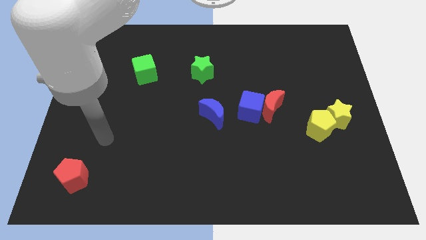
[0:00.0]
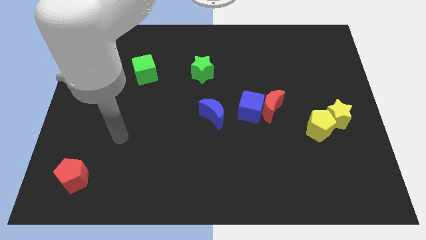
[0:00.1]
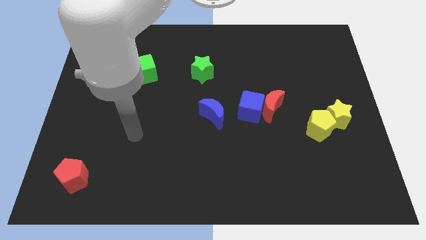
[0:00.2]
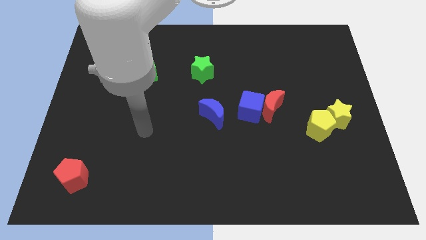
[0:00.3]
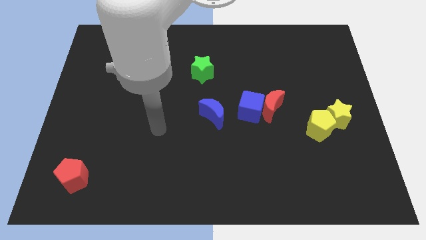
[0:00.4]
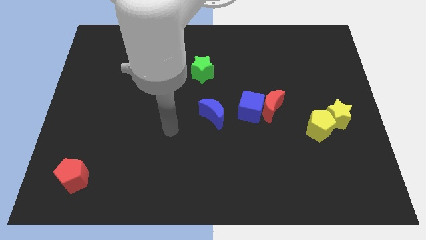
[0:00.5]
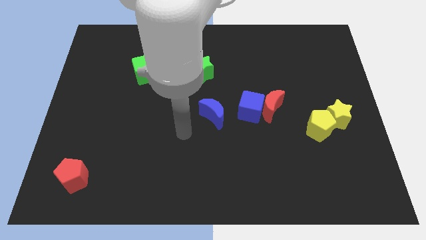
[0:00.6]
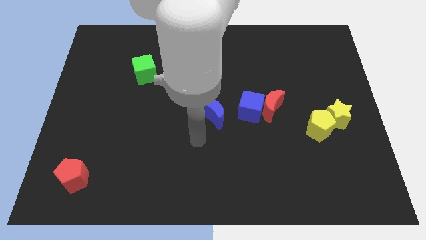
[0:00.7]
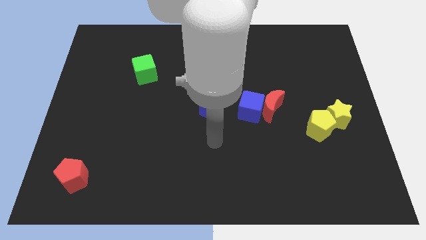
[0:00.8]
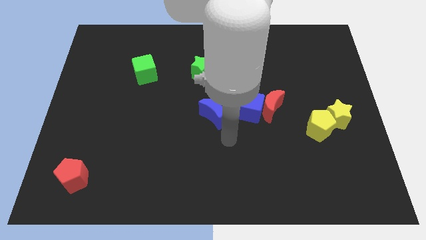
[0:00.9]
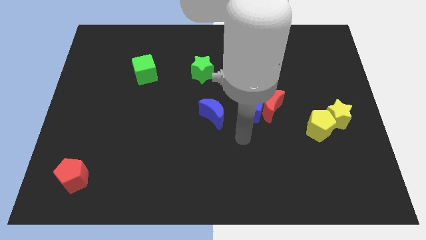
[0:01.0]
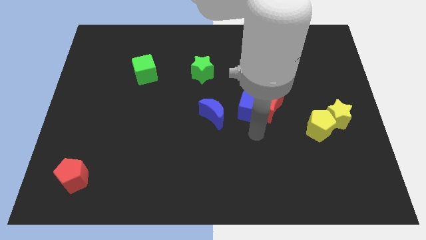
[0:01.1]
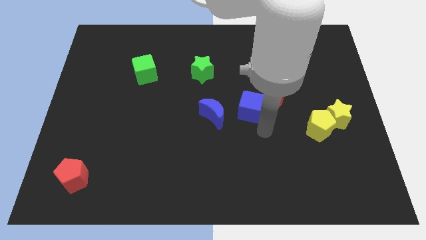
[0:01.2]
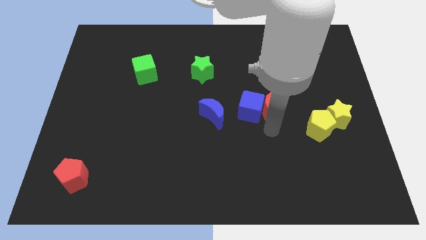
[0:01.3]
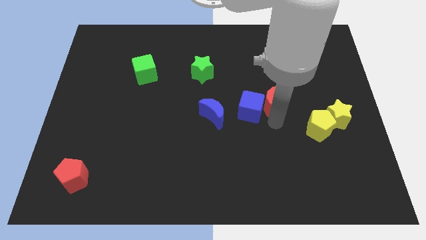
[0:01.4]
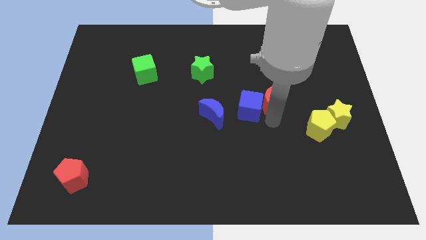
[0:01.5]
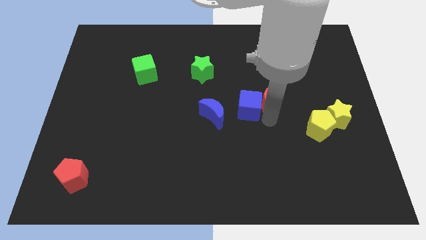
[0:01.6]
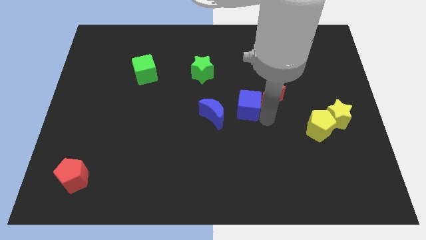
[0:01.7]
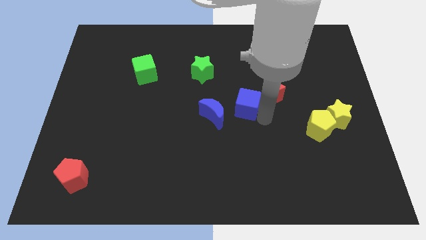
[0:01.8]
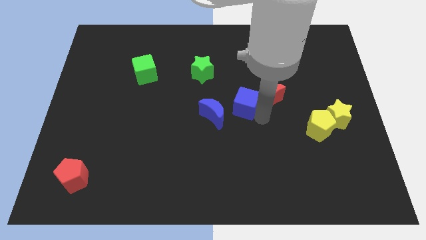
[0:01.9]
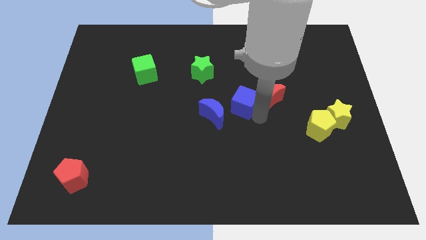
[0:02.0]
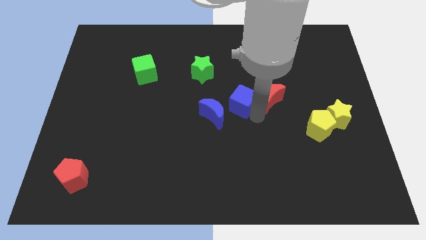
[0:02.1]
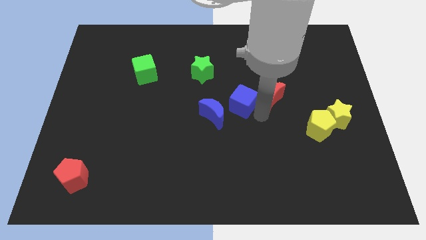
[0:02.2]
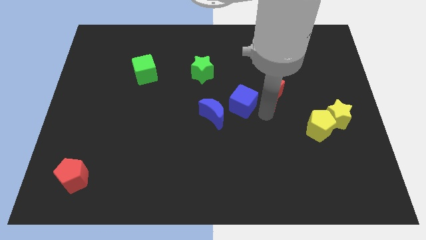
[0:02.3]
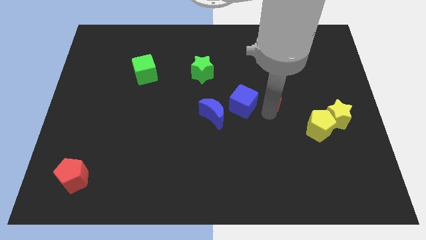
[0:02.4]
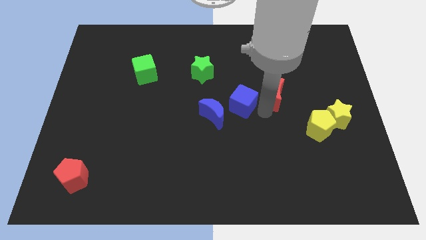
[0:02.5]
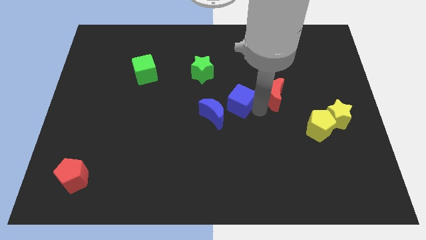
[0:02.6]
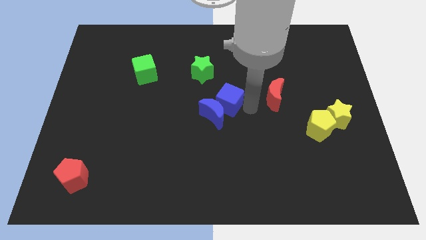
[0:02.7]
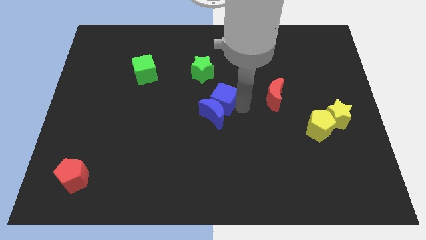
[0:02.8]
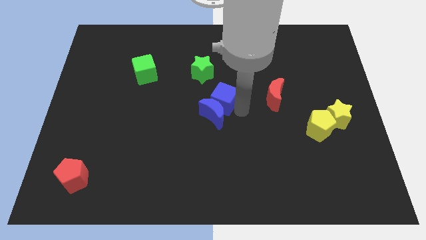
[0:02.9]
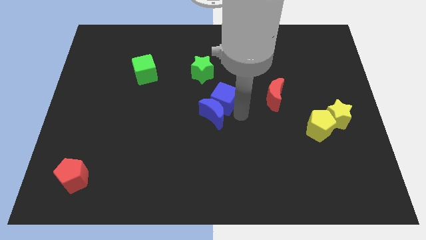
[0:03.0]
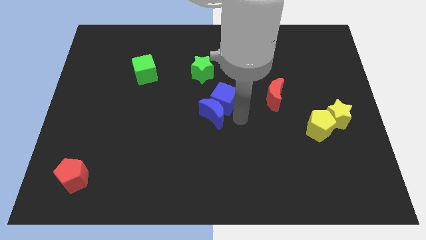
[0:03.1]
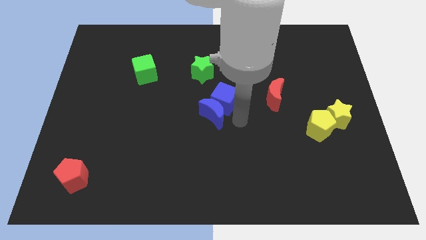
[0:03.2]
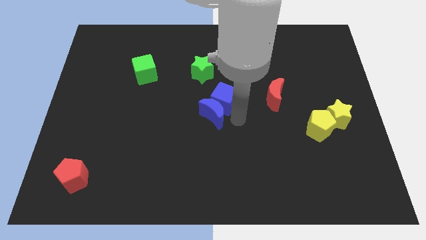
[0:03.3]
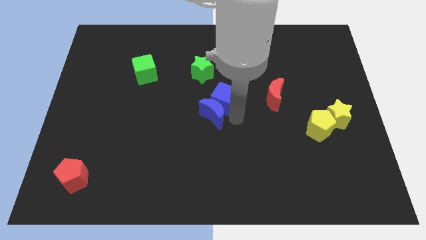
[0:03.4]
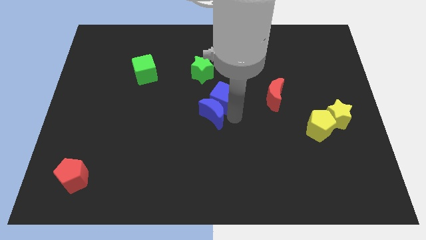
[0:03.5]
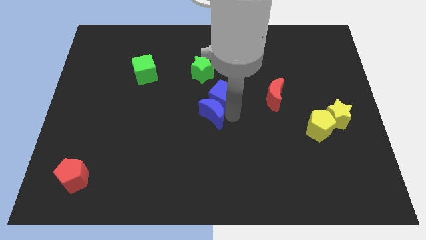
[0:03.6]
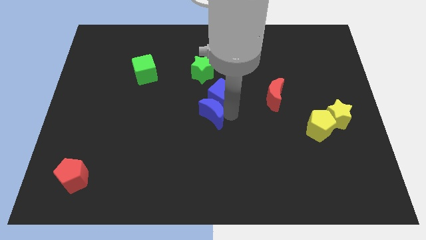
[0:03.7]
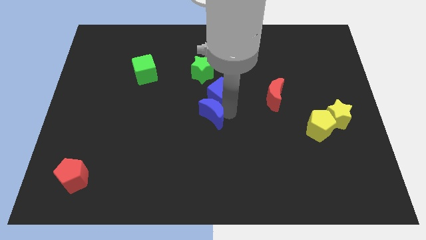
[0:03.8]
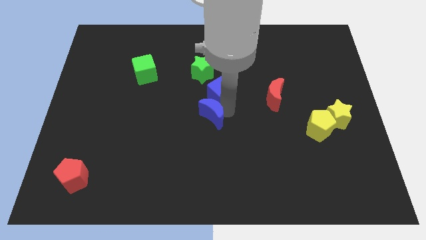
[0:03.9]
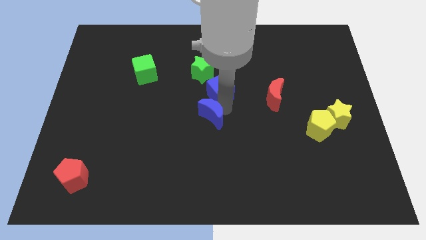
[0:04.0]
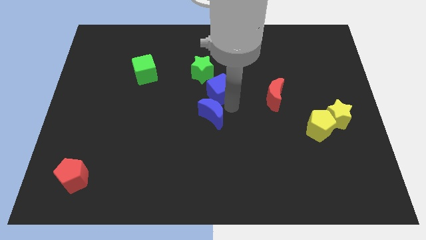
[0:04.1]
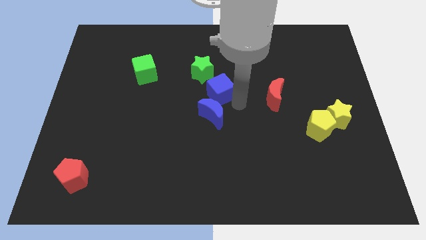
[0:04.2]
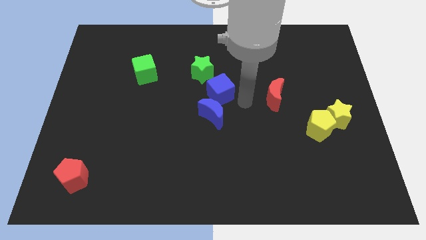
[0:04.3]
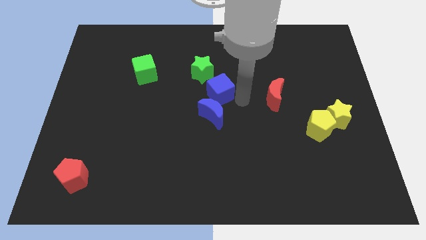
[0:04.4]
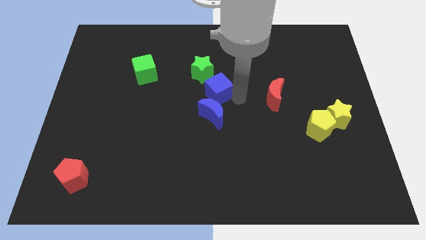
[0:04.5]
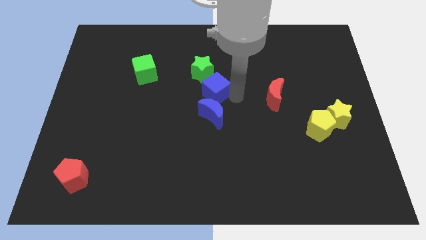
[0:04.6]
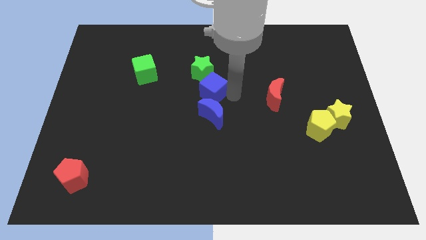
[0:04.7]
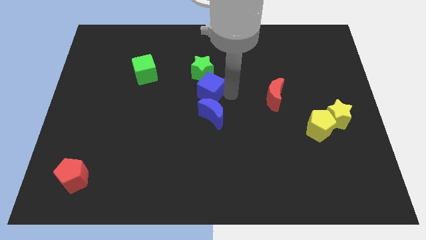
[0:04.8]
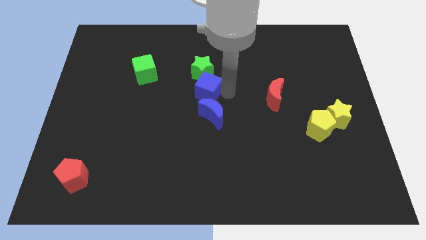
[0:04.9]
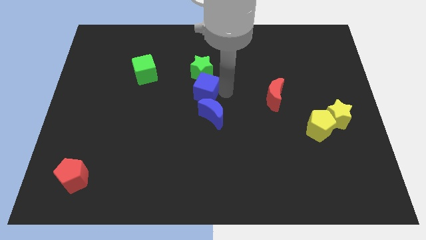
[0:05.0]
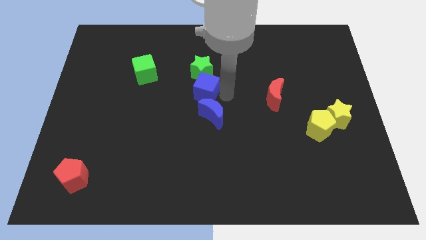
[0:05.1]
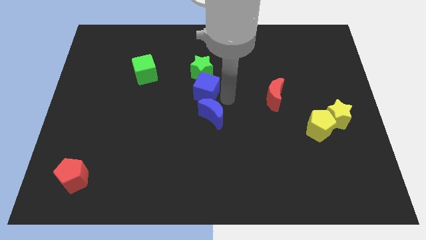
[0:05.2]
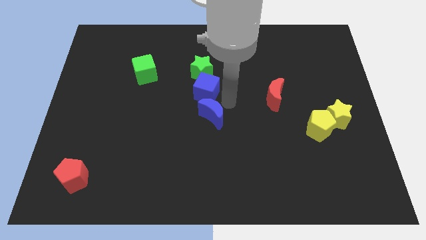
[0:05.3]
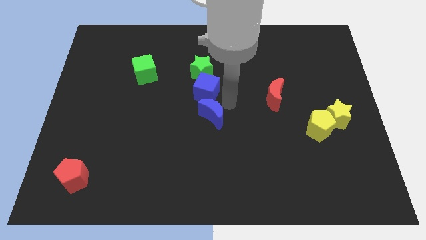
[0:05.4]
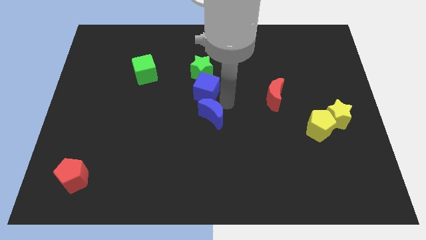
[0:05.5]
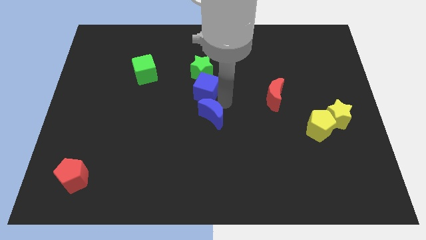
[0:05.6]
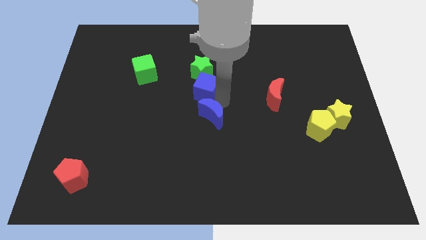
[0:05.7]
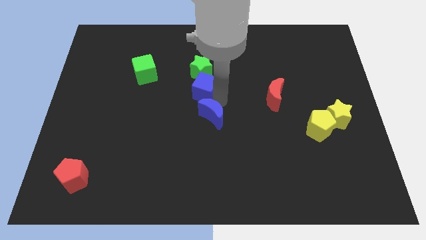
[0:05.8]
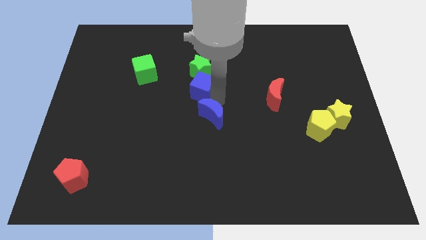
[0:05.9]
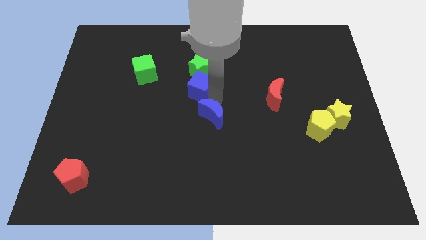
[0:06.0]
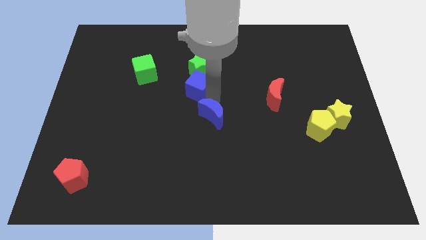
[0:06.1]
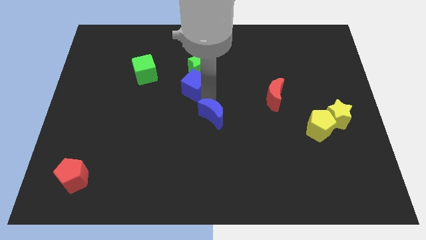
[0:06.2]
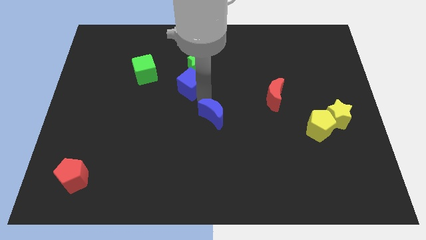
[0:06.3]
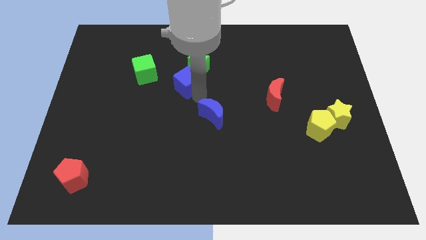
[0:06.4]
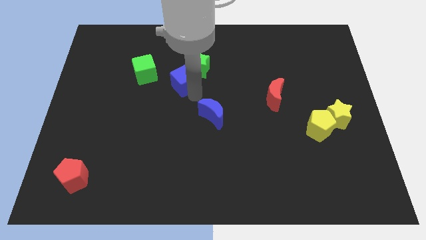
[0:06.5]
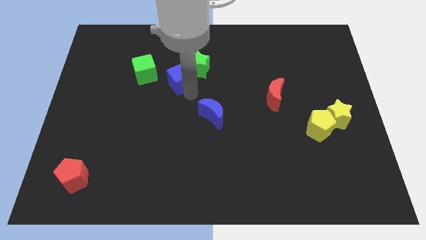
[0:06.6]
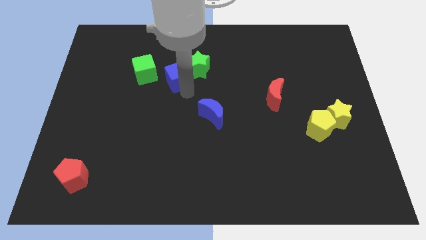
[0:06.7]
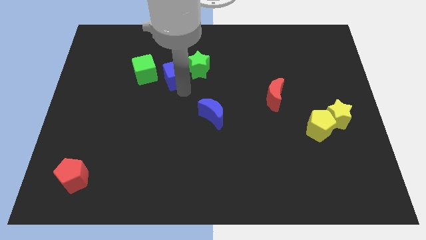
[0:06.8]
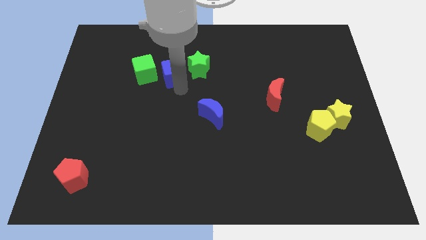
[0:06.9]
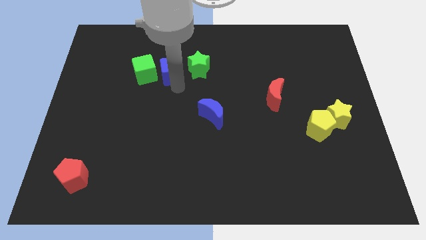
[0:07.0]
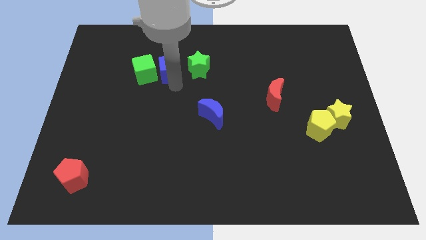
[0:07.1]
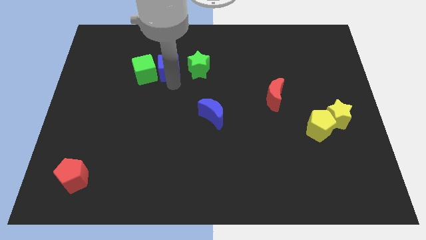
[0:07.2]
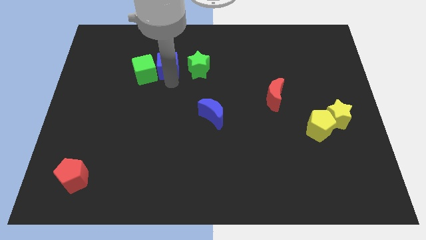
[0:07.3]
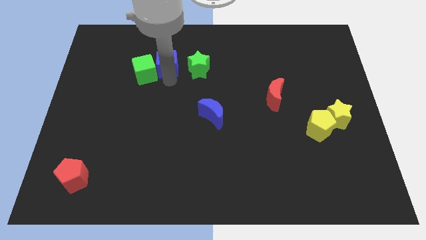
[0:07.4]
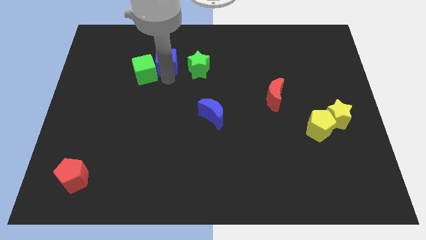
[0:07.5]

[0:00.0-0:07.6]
put the blue cube diagonally up and to the left of the green star
